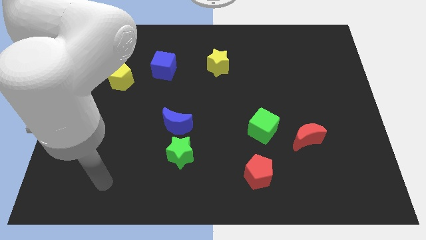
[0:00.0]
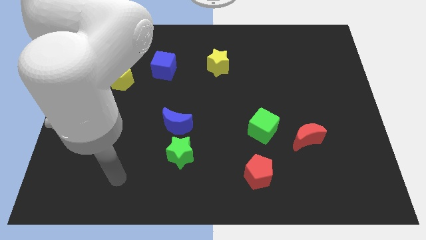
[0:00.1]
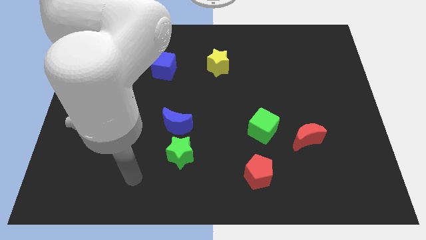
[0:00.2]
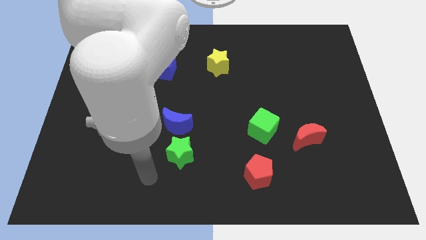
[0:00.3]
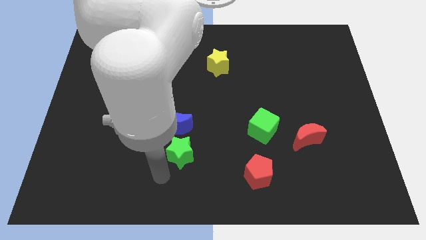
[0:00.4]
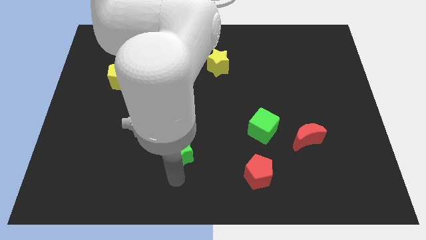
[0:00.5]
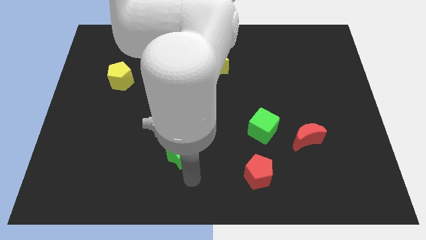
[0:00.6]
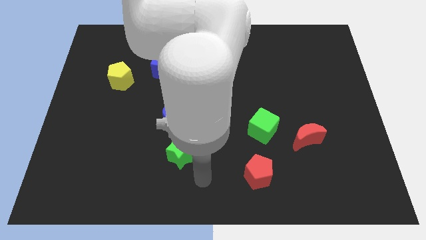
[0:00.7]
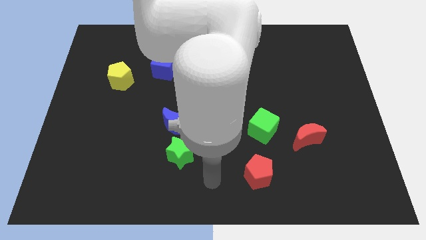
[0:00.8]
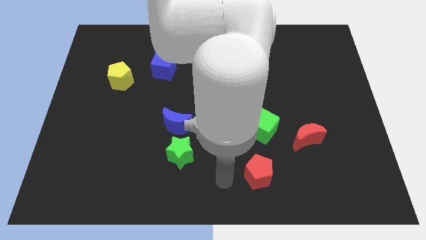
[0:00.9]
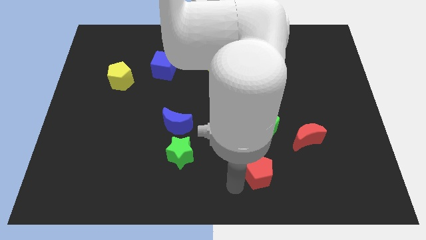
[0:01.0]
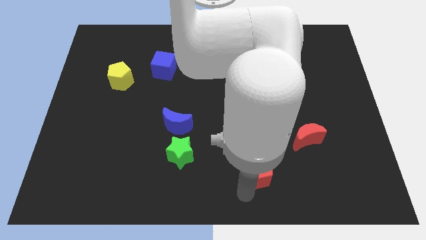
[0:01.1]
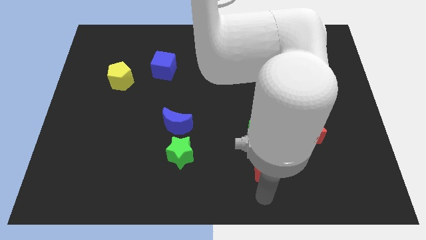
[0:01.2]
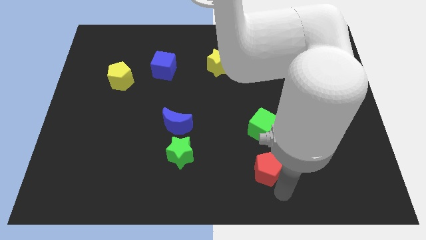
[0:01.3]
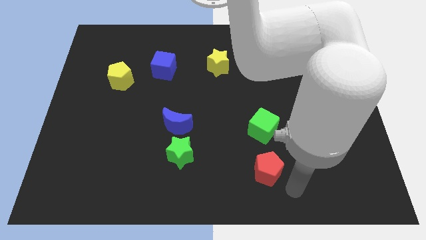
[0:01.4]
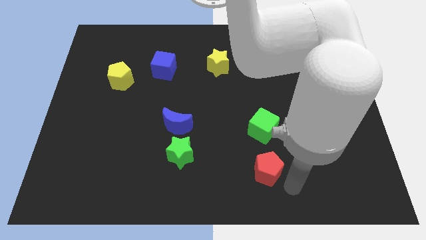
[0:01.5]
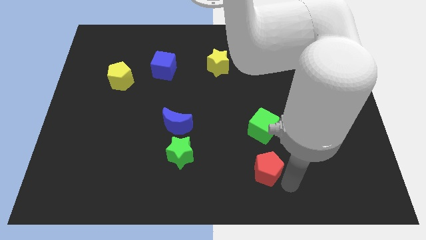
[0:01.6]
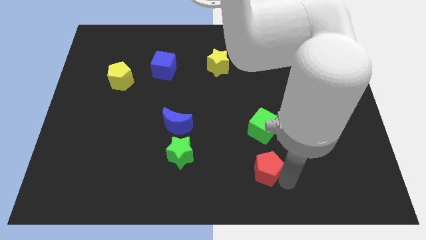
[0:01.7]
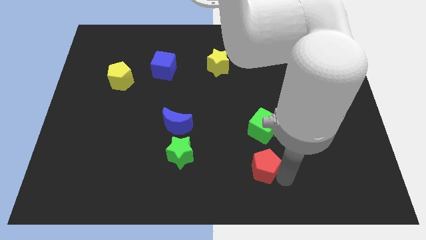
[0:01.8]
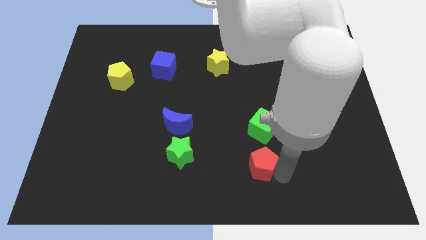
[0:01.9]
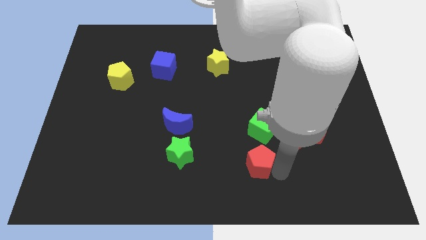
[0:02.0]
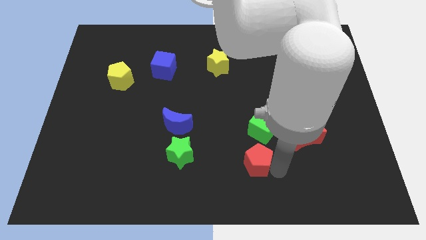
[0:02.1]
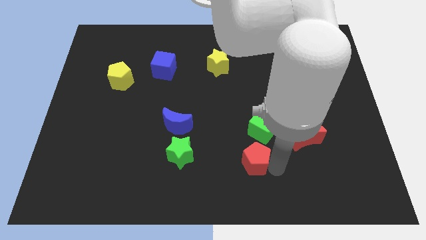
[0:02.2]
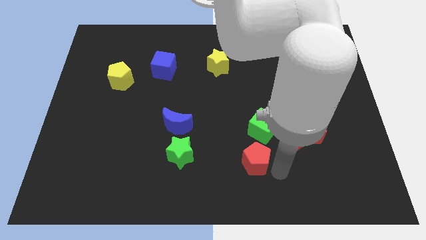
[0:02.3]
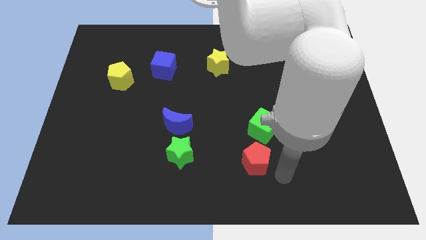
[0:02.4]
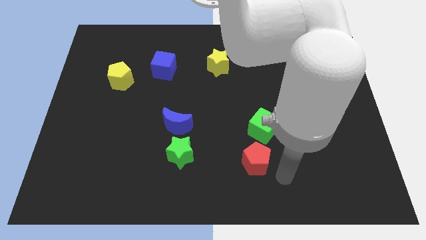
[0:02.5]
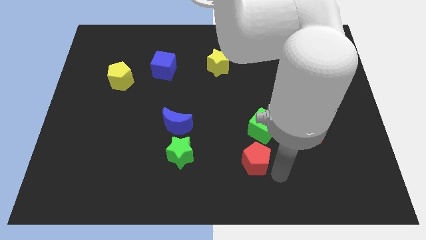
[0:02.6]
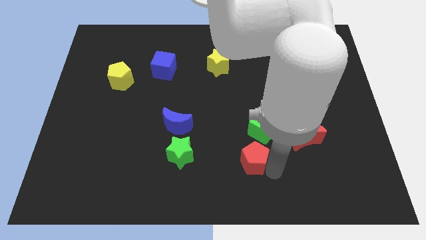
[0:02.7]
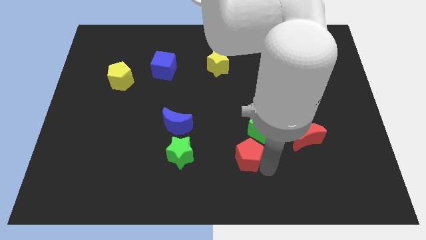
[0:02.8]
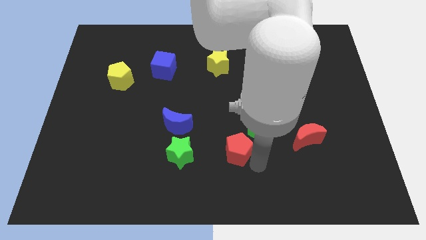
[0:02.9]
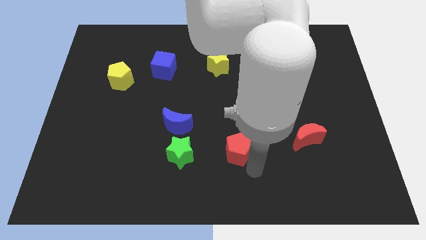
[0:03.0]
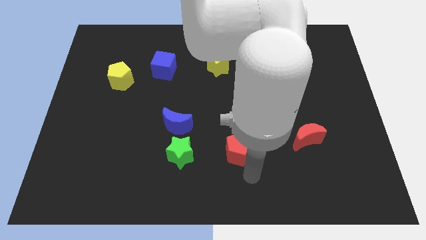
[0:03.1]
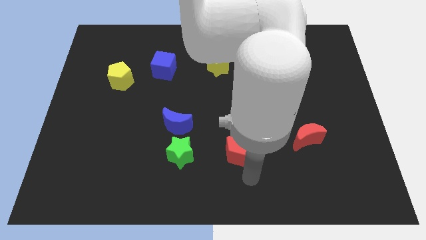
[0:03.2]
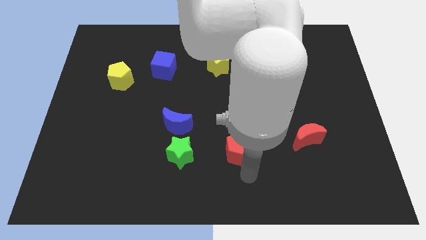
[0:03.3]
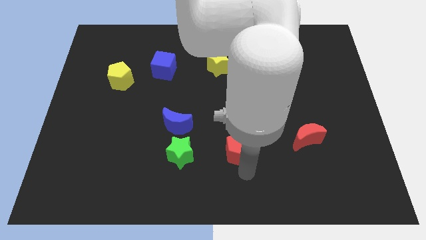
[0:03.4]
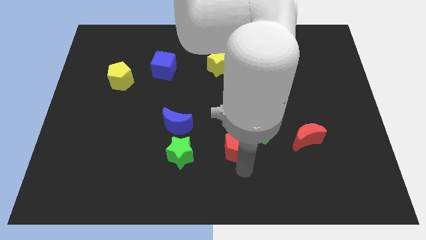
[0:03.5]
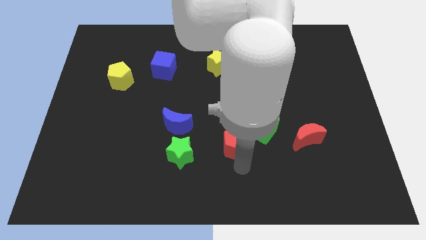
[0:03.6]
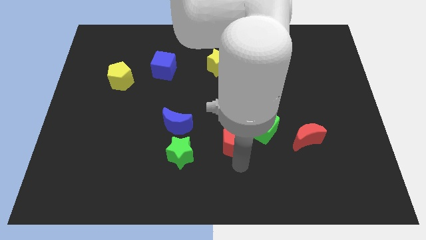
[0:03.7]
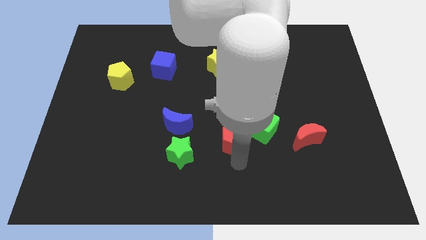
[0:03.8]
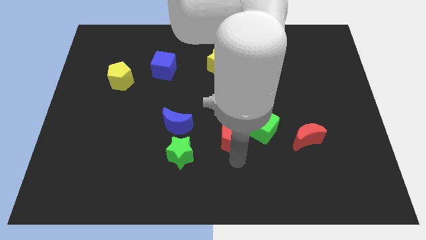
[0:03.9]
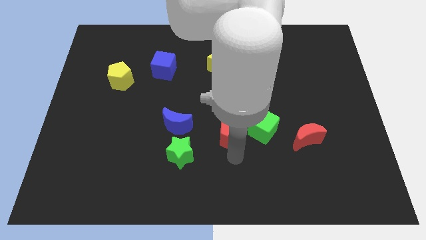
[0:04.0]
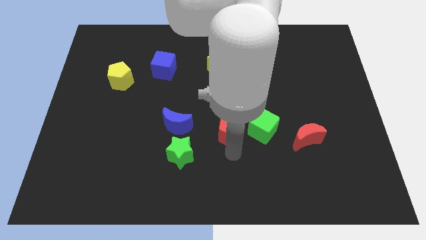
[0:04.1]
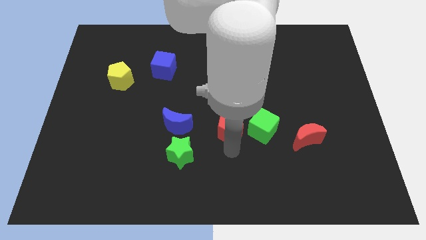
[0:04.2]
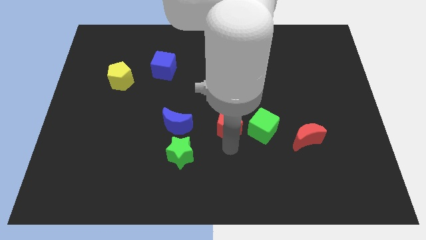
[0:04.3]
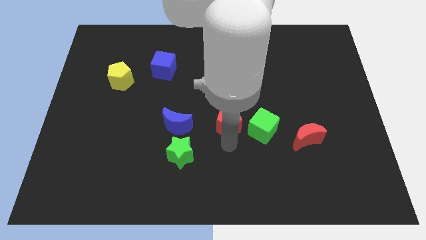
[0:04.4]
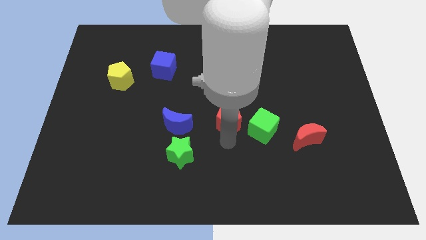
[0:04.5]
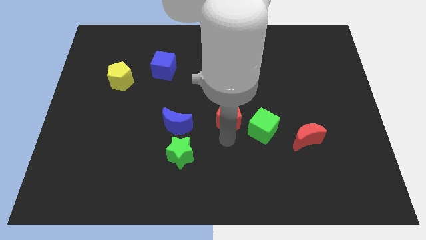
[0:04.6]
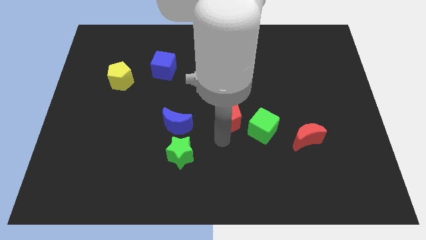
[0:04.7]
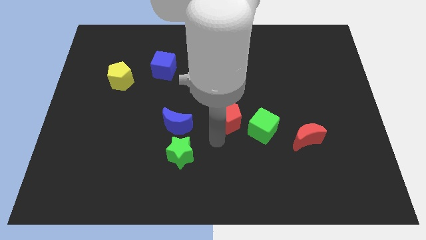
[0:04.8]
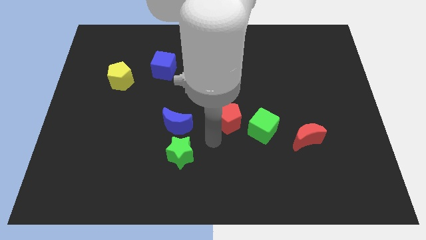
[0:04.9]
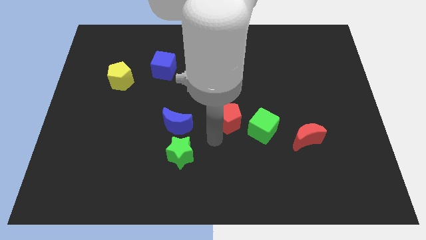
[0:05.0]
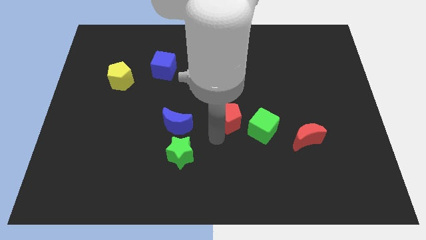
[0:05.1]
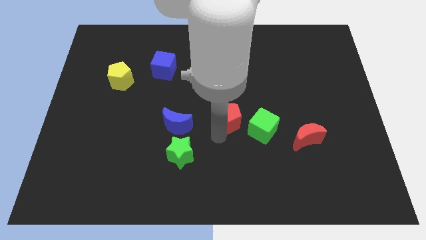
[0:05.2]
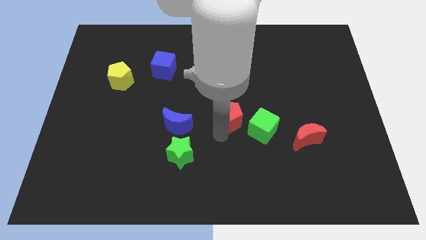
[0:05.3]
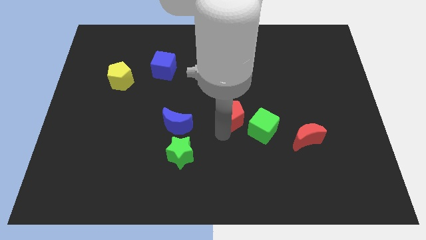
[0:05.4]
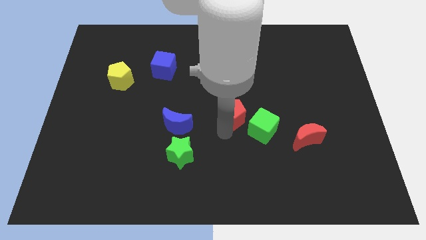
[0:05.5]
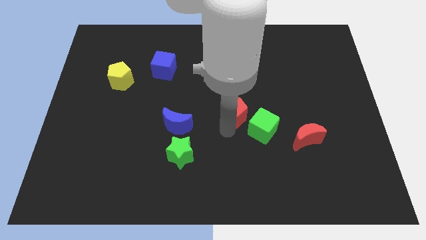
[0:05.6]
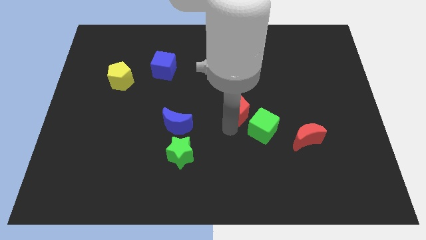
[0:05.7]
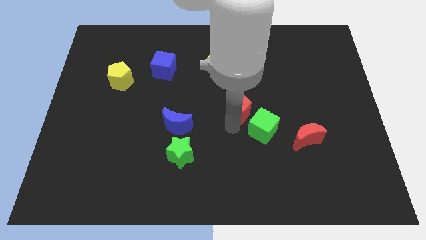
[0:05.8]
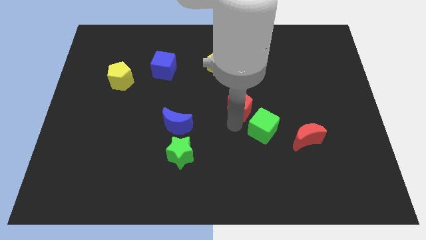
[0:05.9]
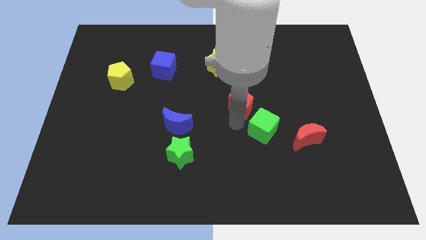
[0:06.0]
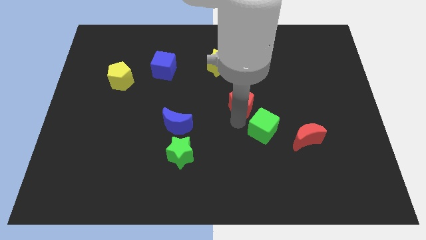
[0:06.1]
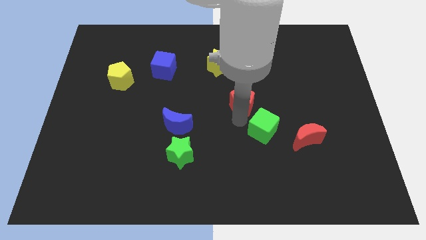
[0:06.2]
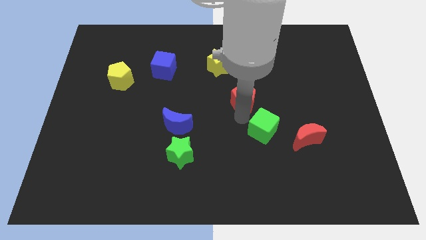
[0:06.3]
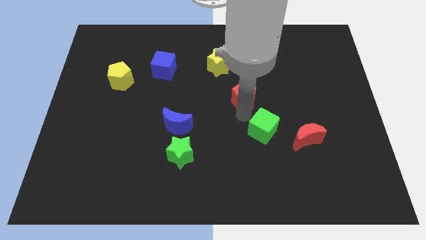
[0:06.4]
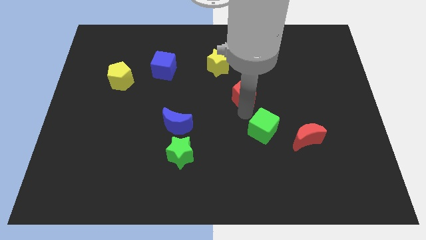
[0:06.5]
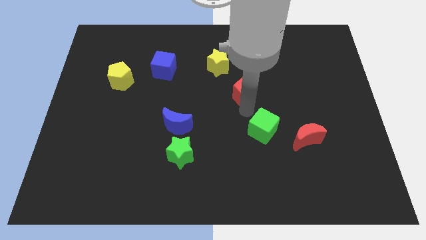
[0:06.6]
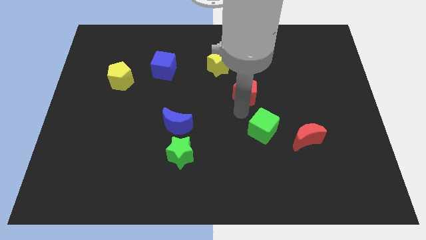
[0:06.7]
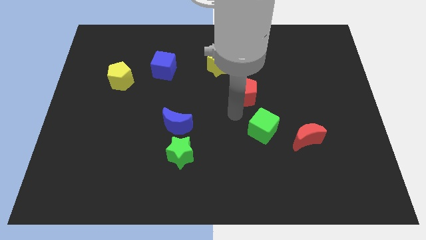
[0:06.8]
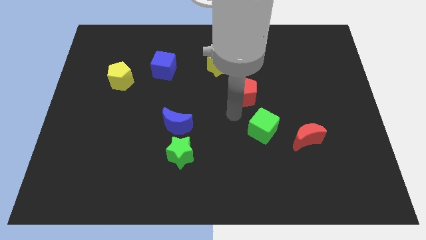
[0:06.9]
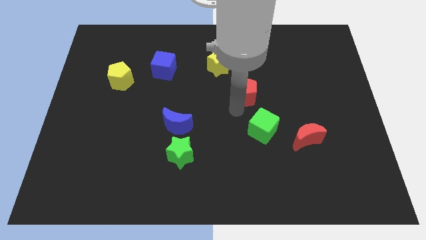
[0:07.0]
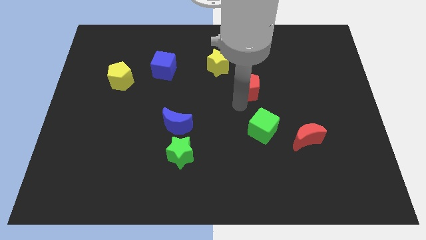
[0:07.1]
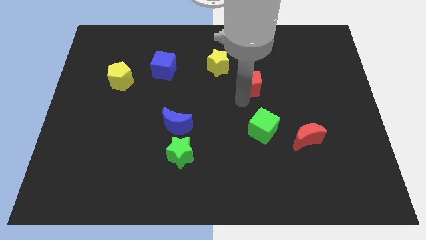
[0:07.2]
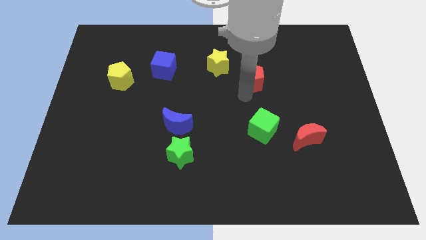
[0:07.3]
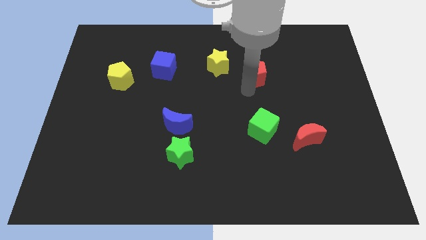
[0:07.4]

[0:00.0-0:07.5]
push the red pentagon to the right side of the yellow star
